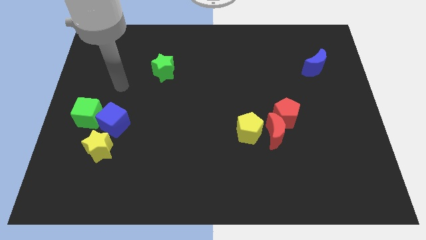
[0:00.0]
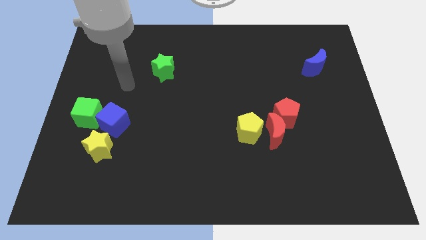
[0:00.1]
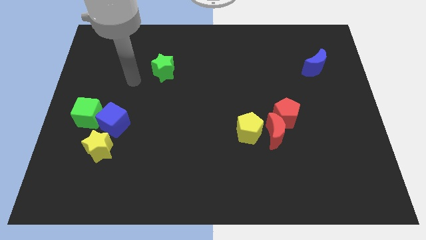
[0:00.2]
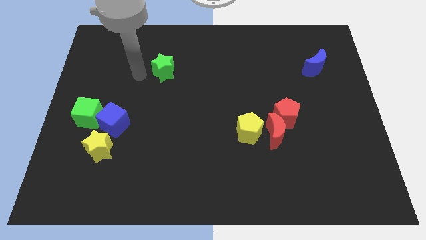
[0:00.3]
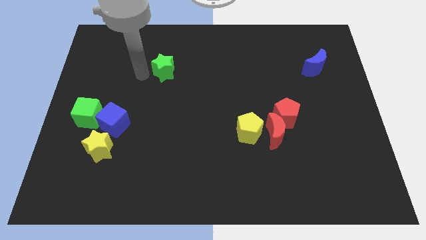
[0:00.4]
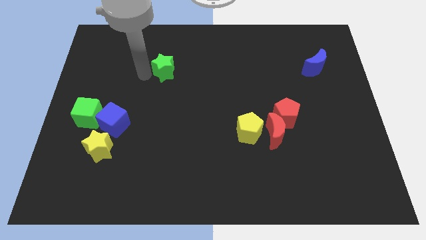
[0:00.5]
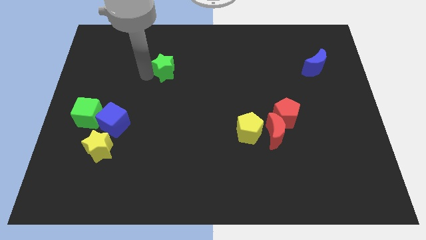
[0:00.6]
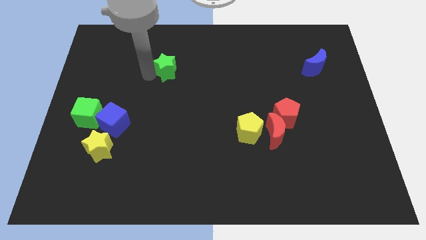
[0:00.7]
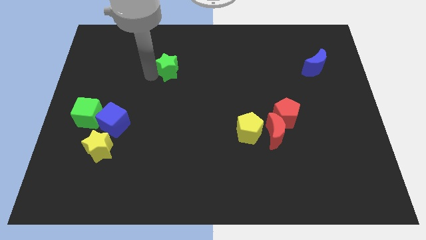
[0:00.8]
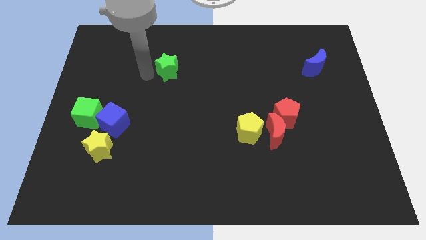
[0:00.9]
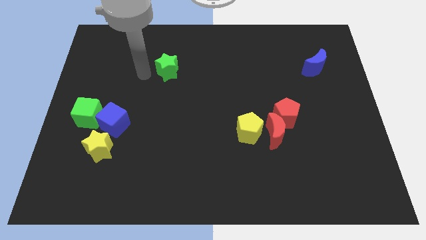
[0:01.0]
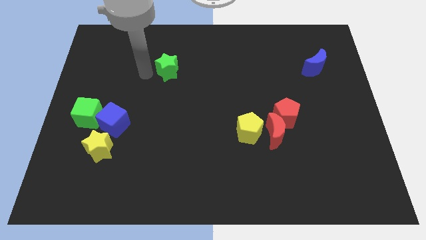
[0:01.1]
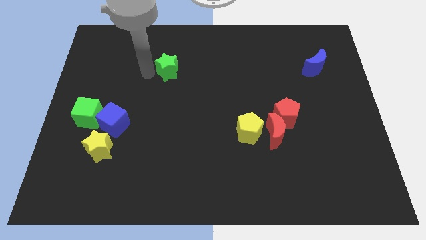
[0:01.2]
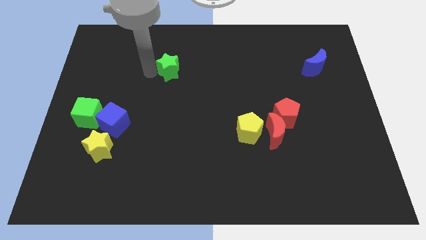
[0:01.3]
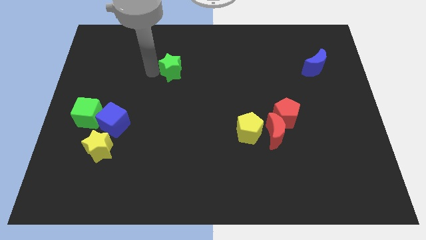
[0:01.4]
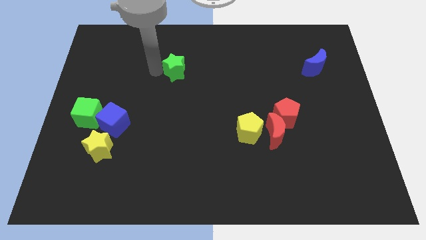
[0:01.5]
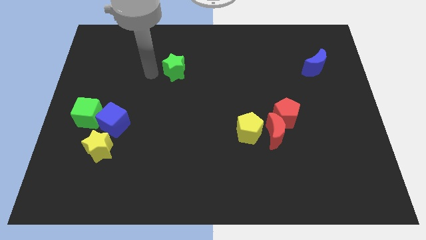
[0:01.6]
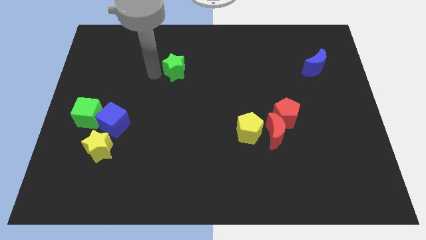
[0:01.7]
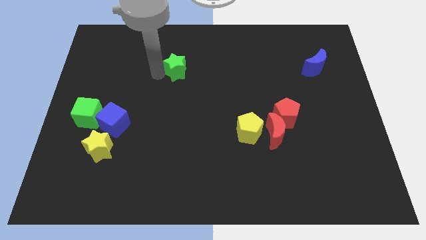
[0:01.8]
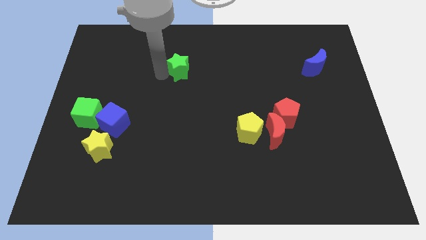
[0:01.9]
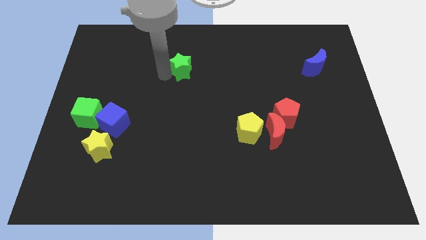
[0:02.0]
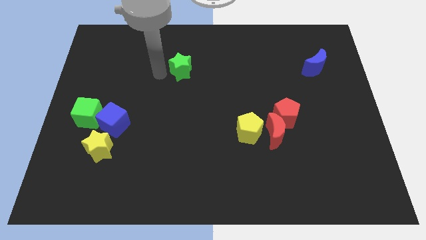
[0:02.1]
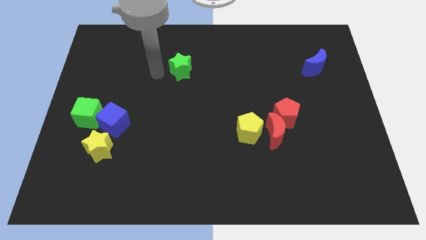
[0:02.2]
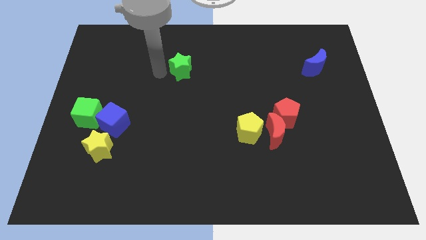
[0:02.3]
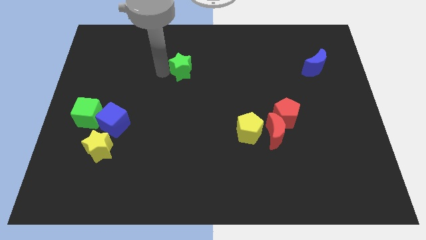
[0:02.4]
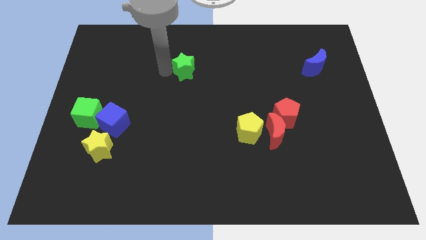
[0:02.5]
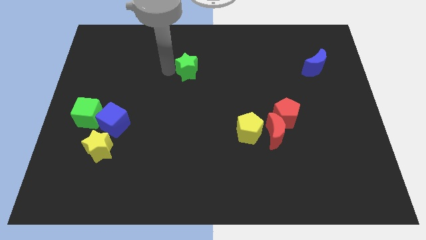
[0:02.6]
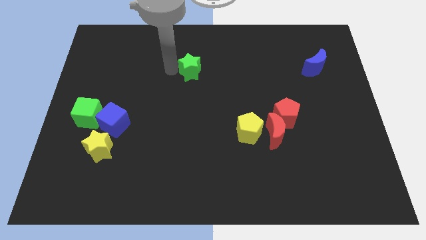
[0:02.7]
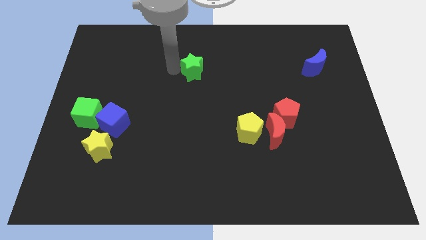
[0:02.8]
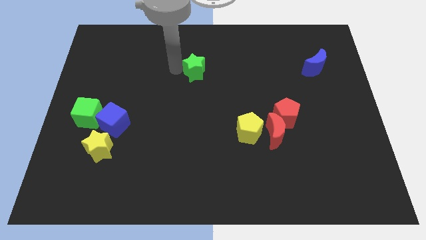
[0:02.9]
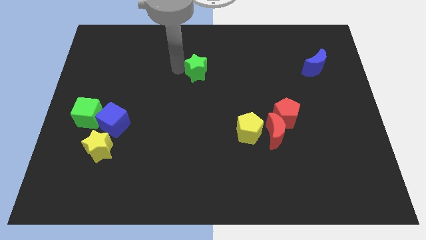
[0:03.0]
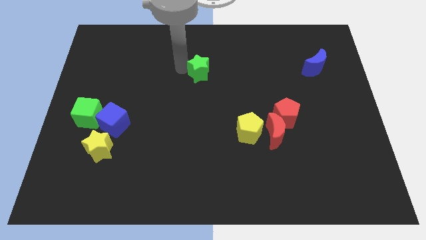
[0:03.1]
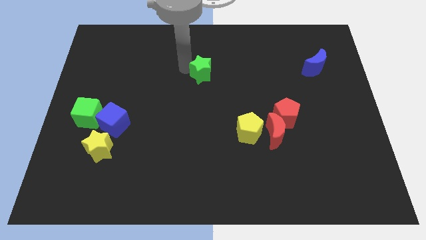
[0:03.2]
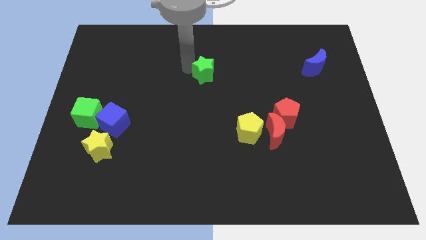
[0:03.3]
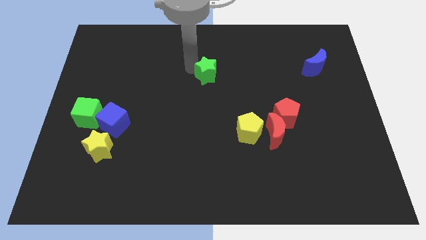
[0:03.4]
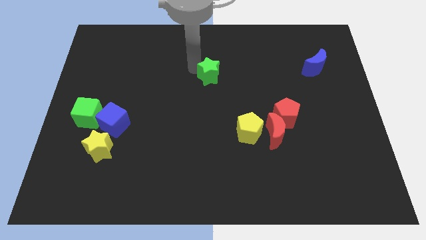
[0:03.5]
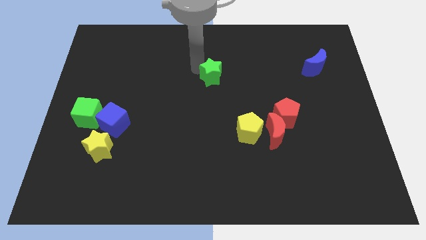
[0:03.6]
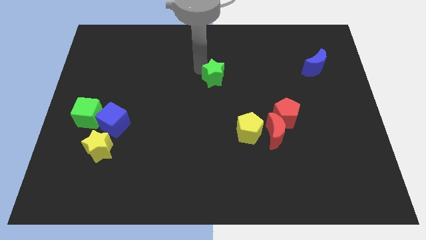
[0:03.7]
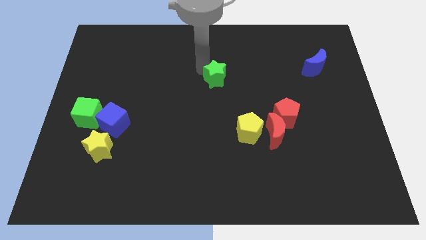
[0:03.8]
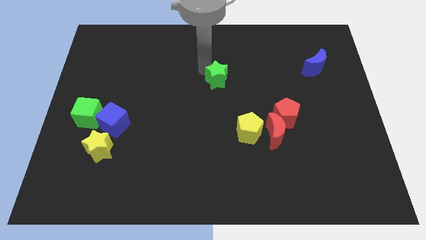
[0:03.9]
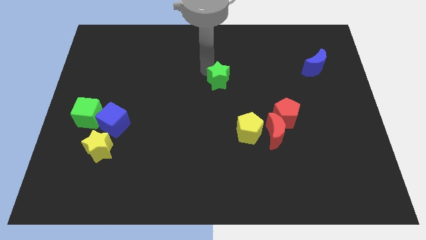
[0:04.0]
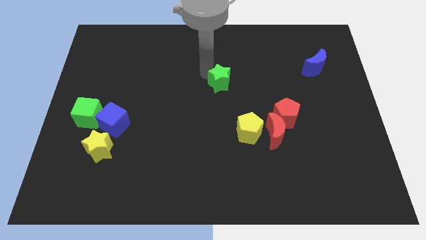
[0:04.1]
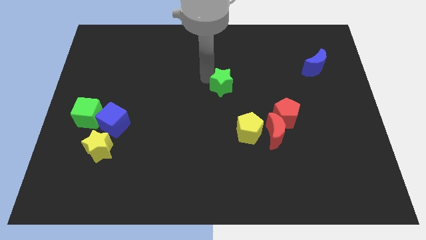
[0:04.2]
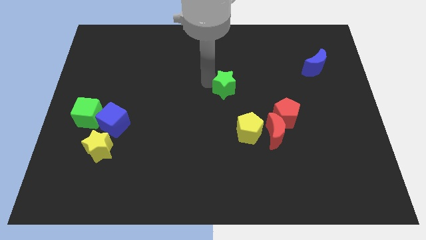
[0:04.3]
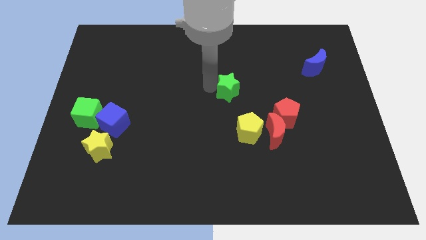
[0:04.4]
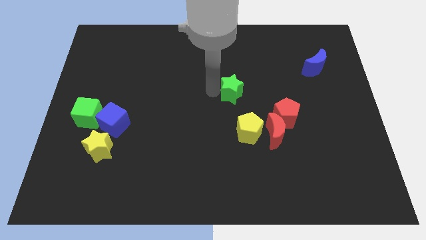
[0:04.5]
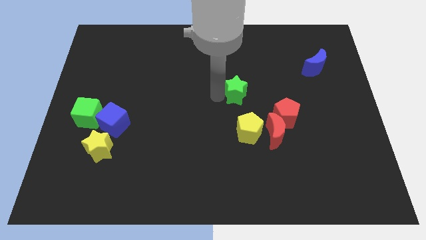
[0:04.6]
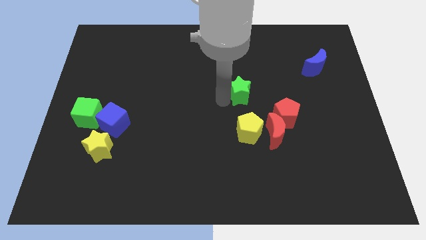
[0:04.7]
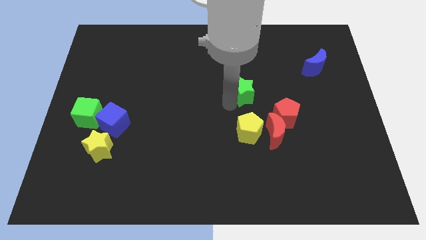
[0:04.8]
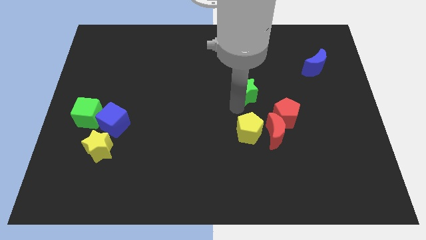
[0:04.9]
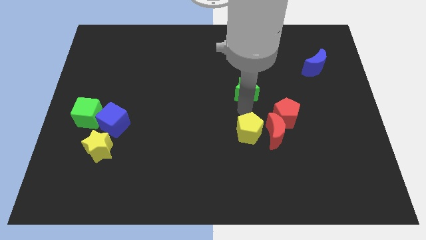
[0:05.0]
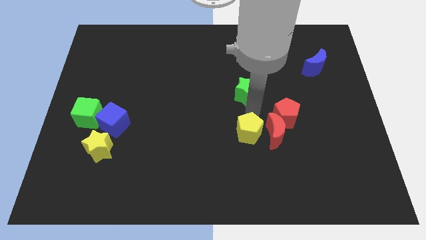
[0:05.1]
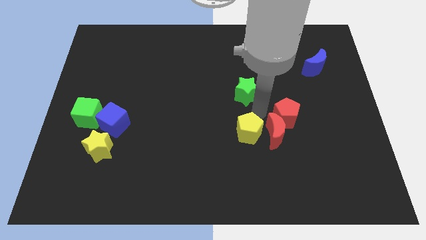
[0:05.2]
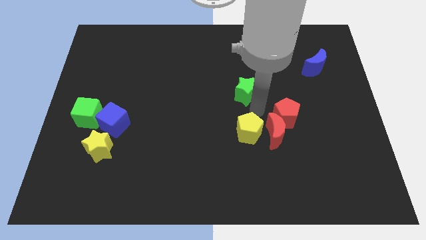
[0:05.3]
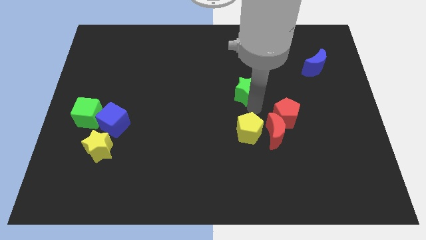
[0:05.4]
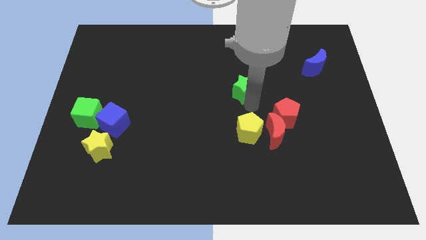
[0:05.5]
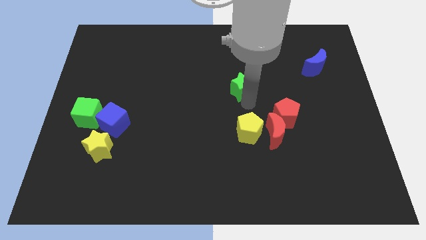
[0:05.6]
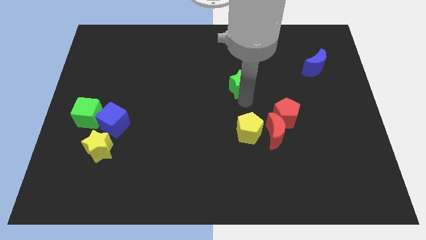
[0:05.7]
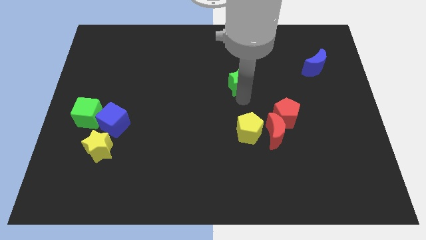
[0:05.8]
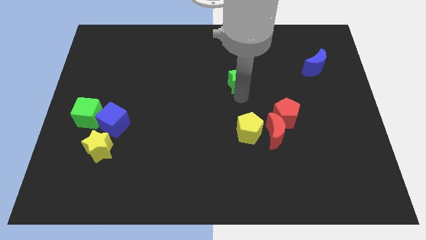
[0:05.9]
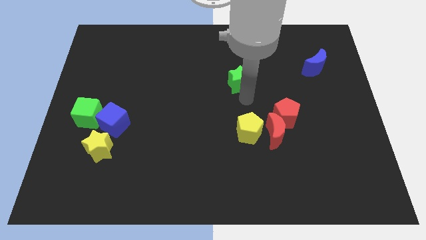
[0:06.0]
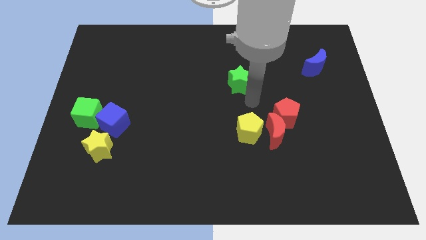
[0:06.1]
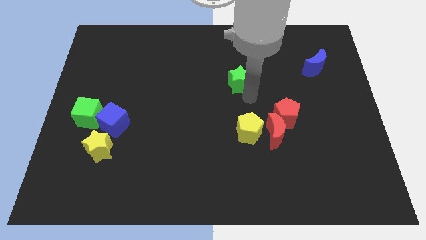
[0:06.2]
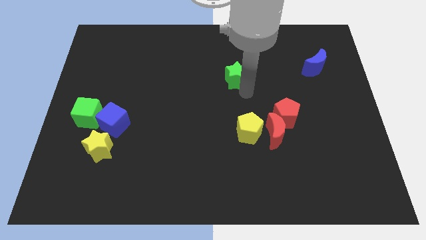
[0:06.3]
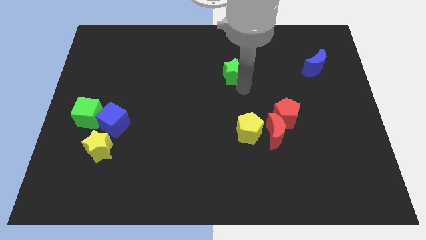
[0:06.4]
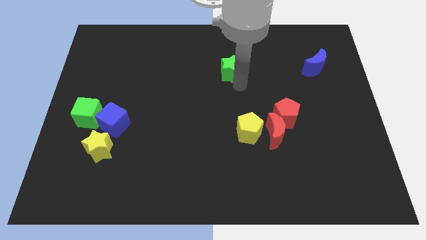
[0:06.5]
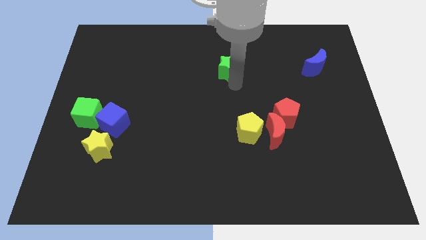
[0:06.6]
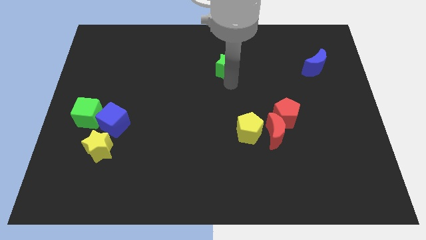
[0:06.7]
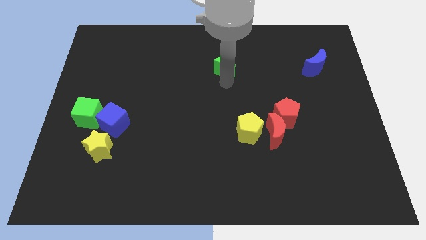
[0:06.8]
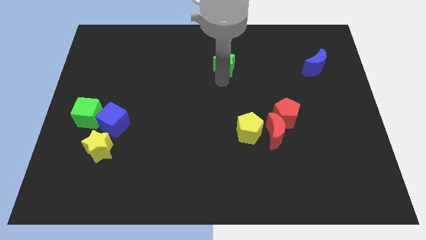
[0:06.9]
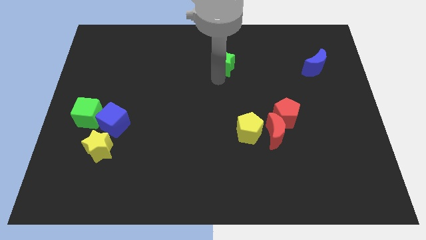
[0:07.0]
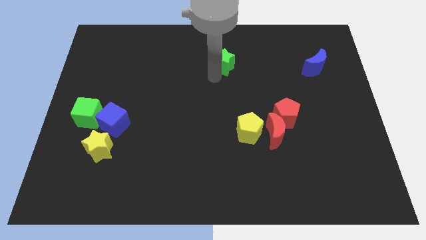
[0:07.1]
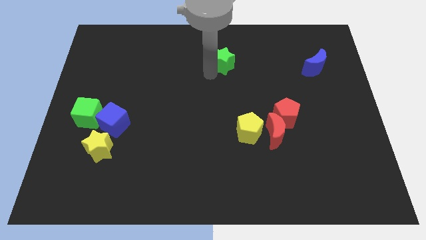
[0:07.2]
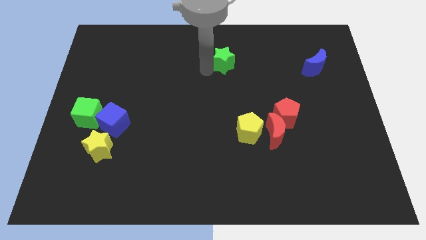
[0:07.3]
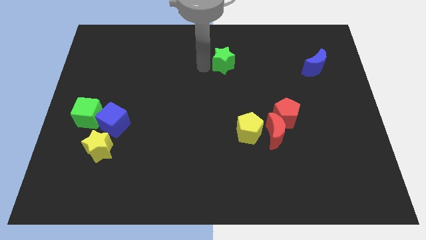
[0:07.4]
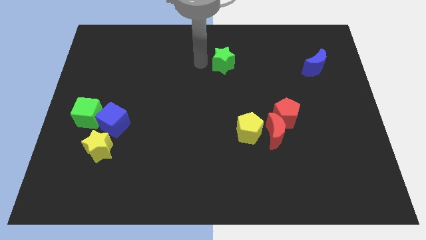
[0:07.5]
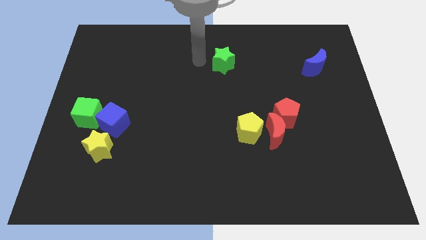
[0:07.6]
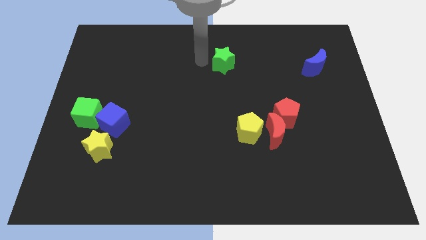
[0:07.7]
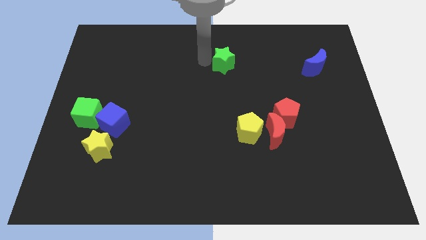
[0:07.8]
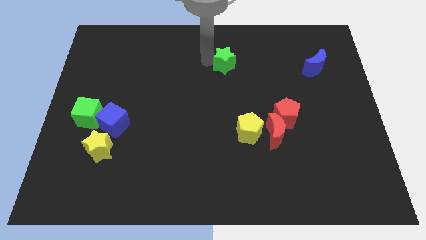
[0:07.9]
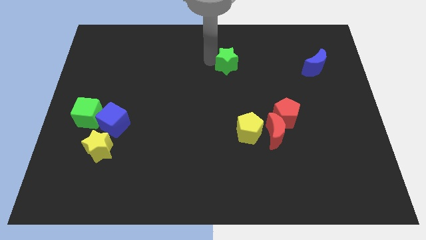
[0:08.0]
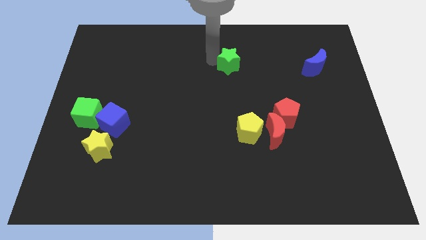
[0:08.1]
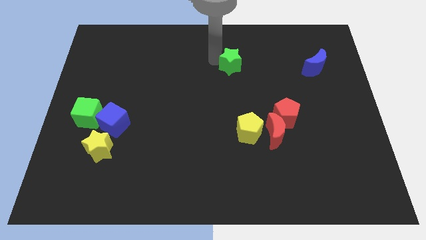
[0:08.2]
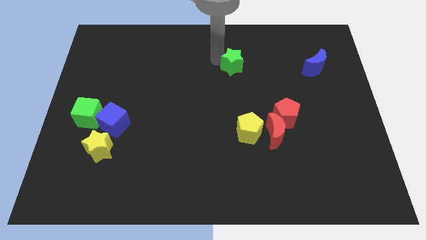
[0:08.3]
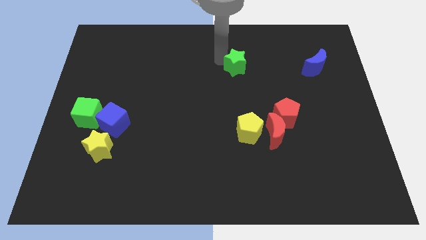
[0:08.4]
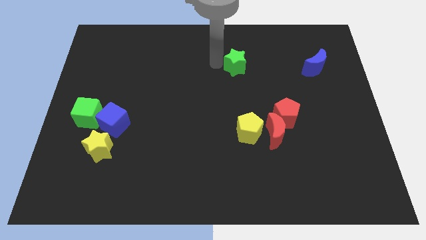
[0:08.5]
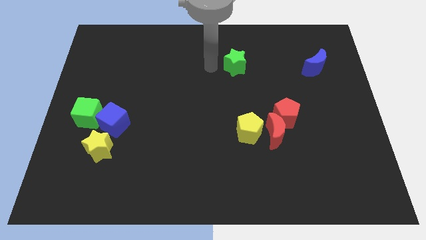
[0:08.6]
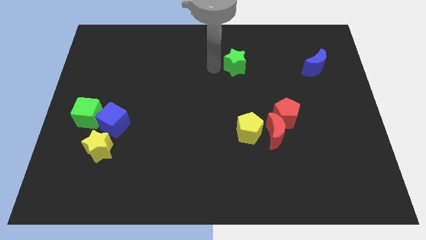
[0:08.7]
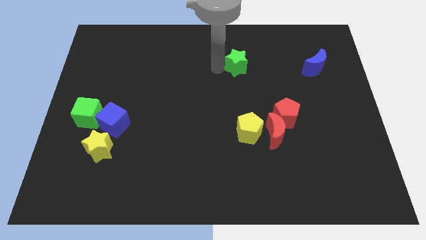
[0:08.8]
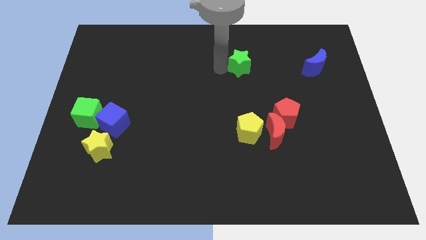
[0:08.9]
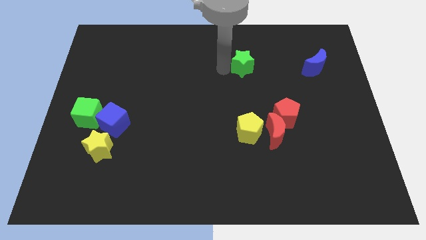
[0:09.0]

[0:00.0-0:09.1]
slide the green star right
